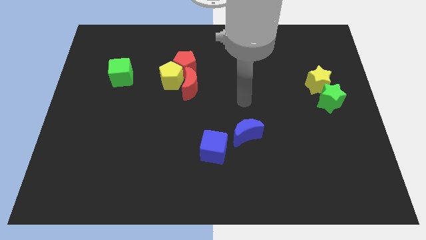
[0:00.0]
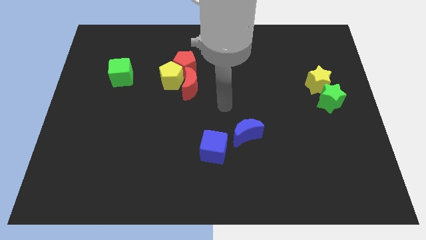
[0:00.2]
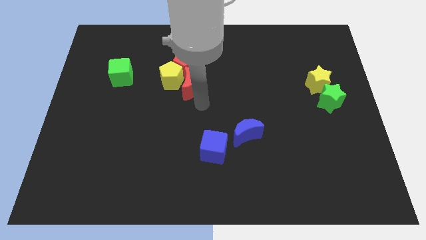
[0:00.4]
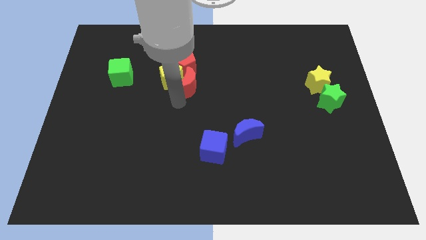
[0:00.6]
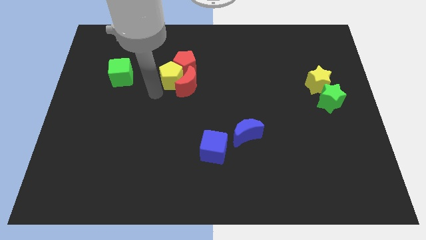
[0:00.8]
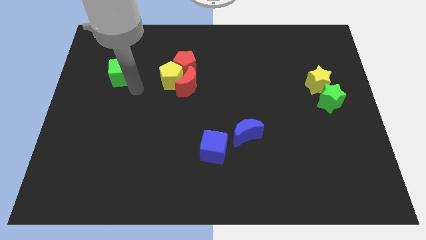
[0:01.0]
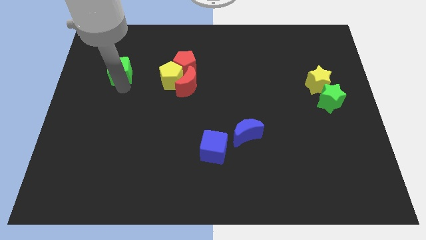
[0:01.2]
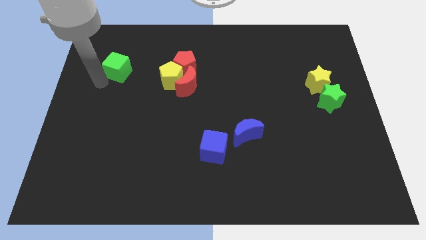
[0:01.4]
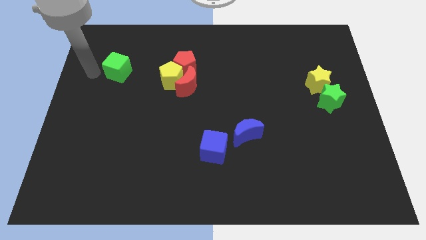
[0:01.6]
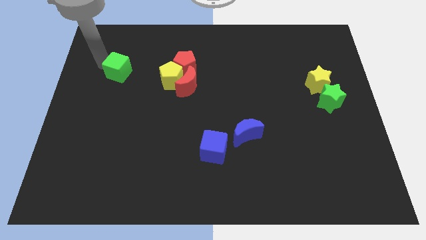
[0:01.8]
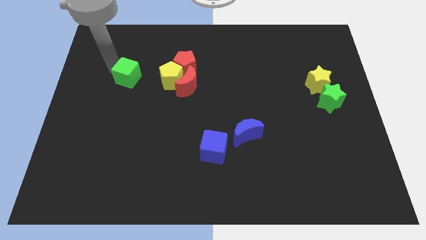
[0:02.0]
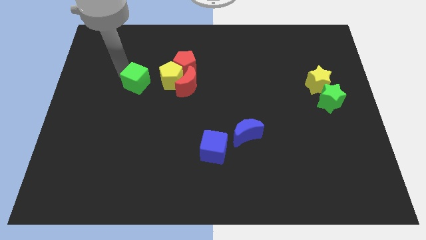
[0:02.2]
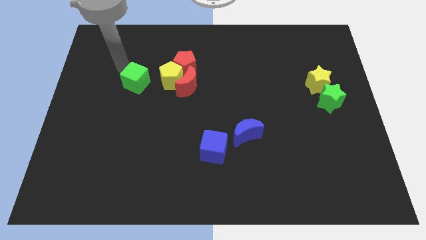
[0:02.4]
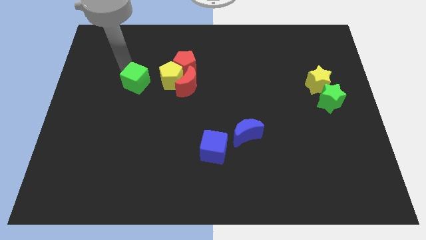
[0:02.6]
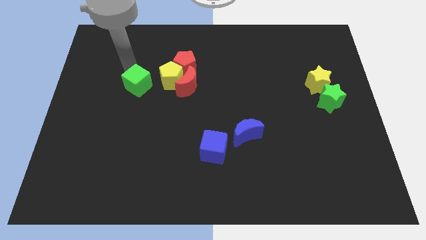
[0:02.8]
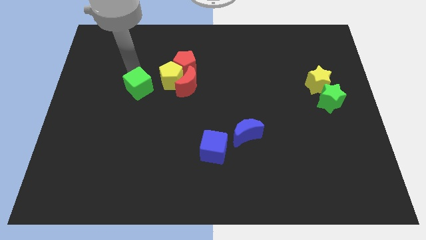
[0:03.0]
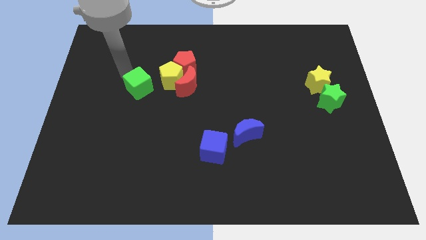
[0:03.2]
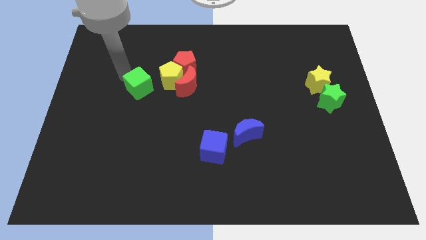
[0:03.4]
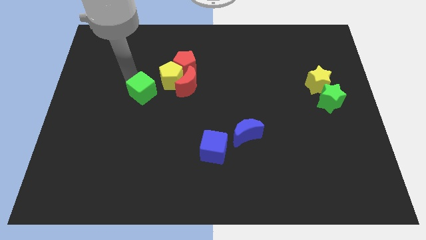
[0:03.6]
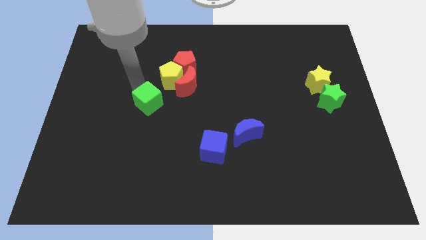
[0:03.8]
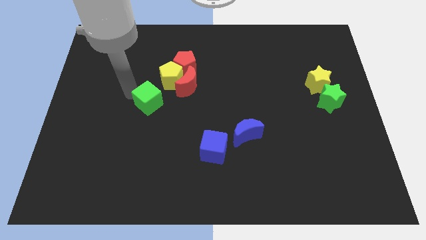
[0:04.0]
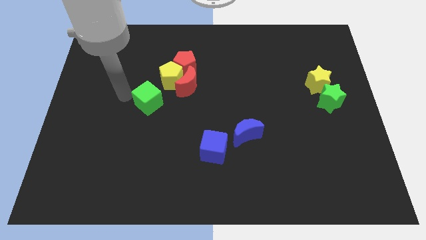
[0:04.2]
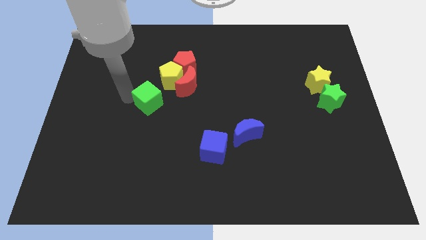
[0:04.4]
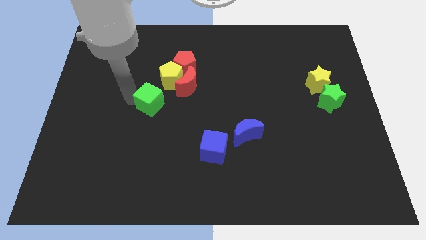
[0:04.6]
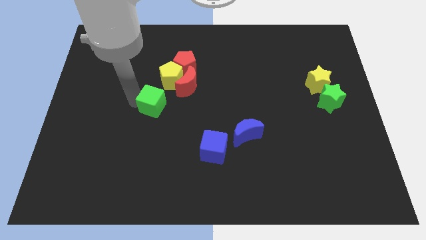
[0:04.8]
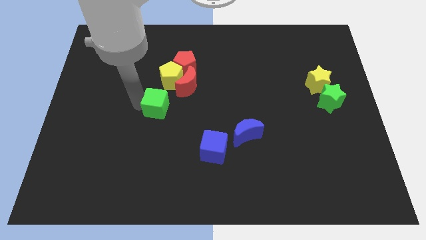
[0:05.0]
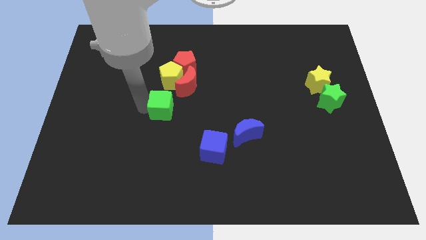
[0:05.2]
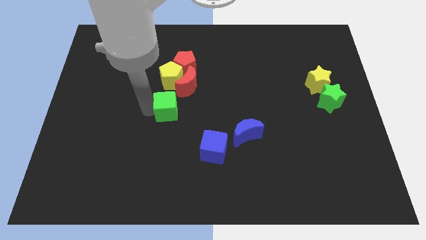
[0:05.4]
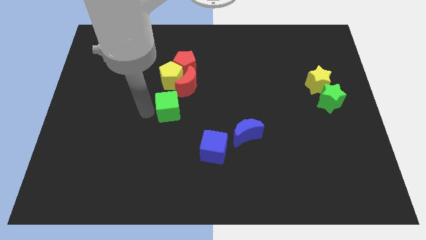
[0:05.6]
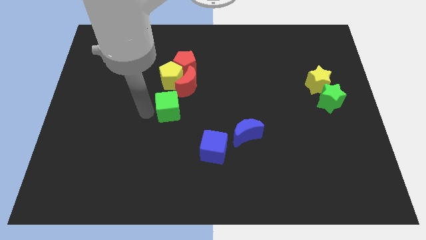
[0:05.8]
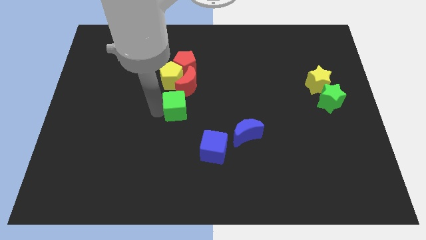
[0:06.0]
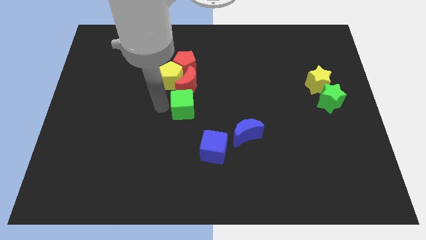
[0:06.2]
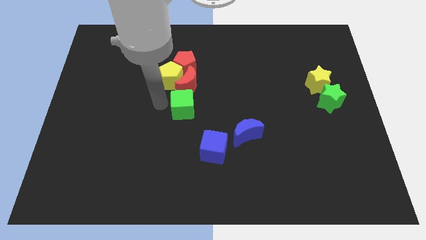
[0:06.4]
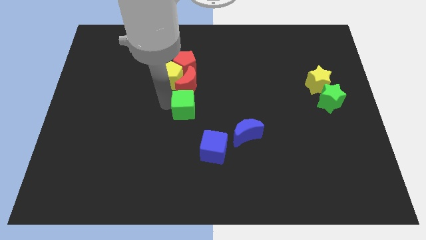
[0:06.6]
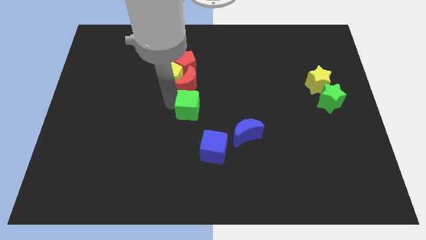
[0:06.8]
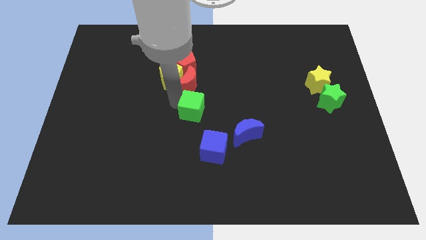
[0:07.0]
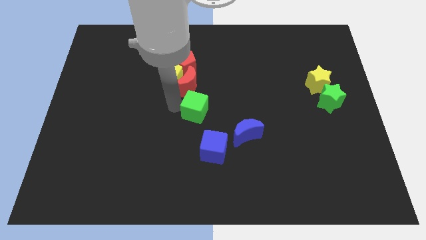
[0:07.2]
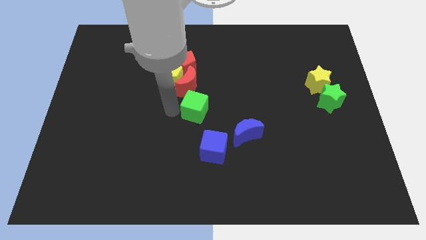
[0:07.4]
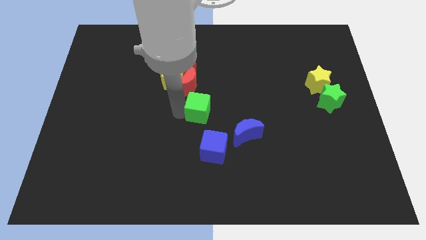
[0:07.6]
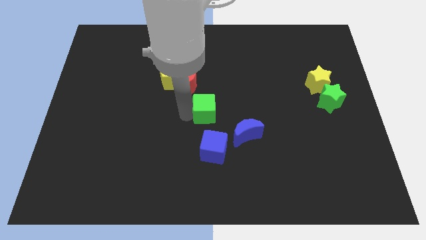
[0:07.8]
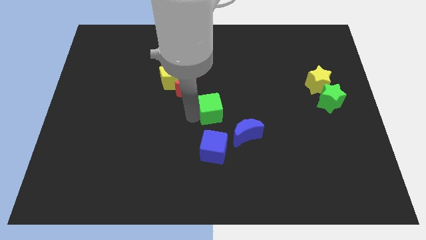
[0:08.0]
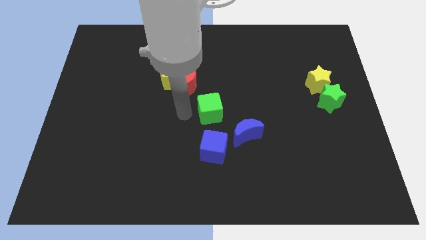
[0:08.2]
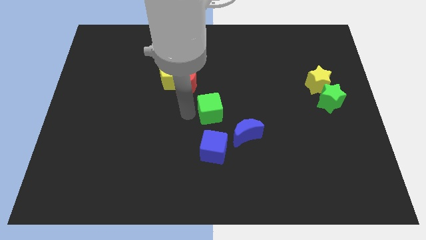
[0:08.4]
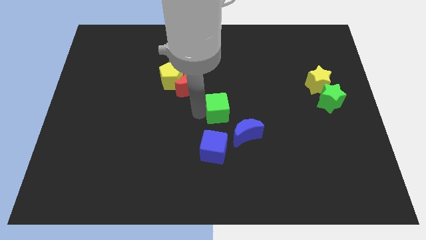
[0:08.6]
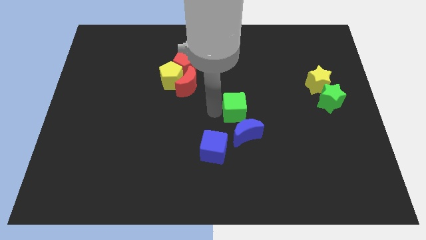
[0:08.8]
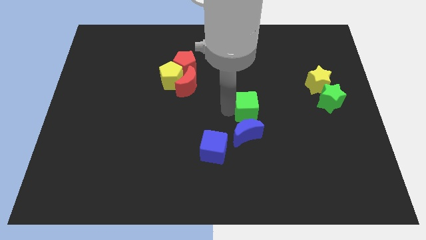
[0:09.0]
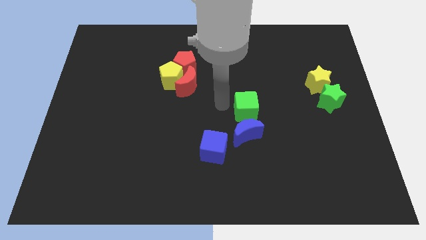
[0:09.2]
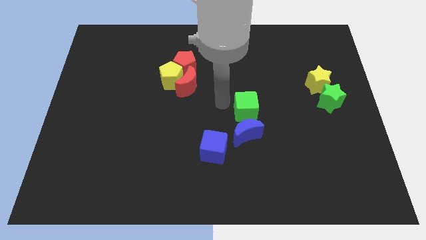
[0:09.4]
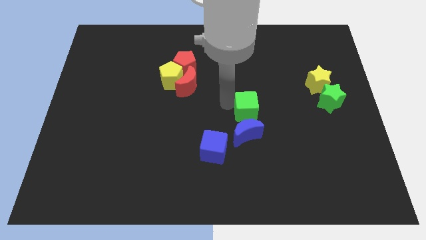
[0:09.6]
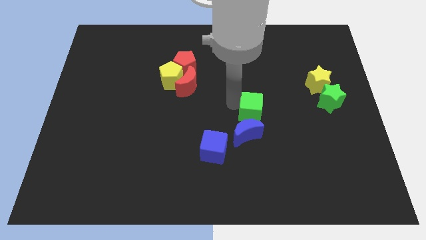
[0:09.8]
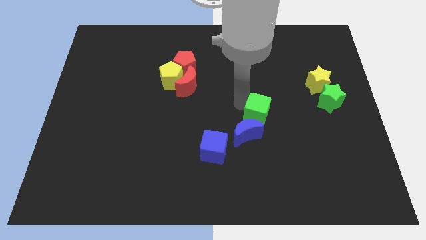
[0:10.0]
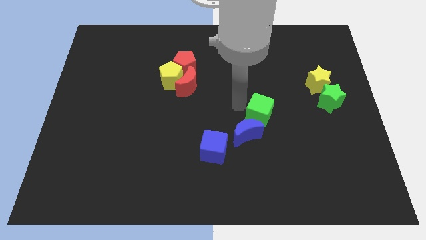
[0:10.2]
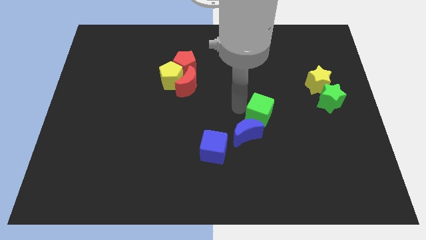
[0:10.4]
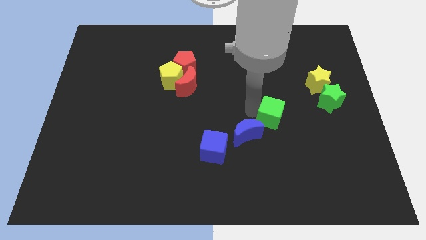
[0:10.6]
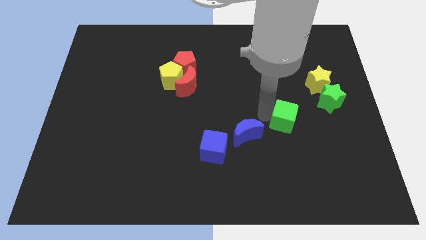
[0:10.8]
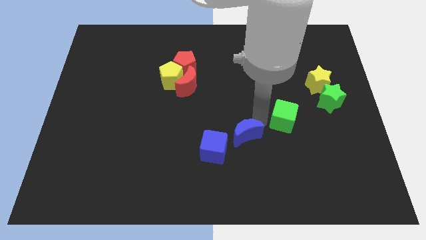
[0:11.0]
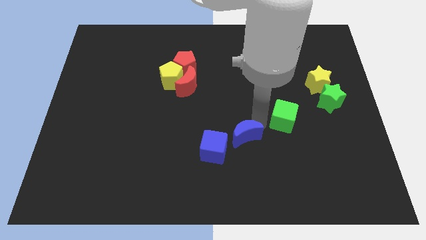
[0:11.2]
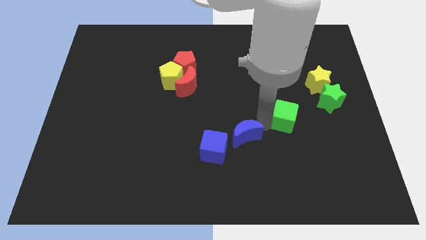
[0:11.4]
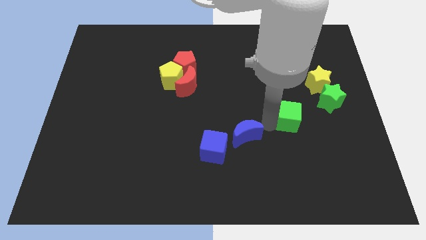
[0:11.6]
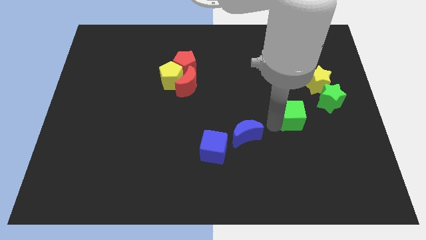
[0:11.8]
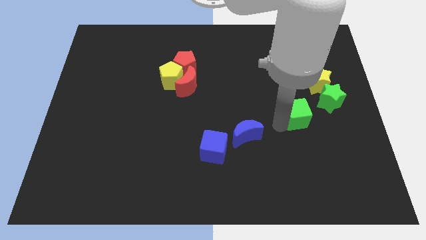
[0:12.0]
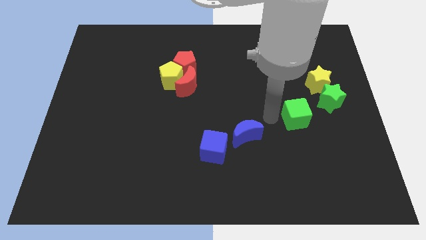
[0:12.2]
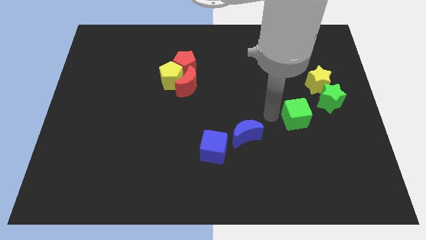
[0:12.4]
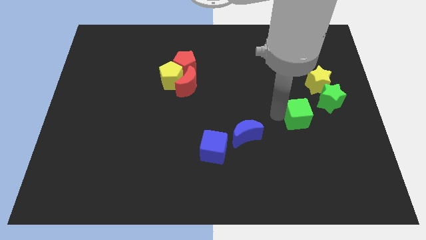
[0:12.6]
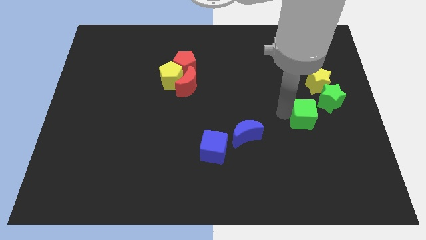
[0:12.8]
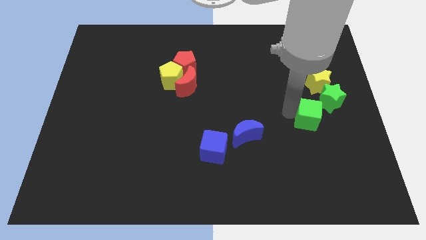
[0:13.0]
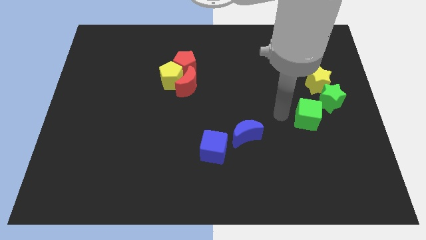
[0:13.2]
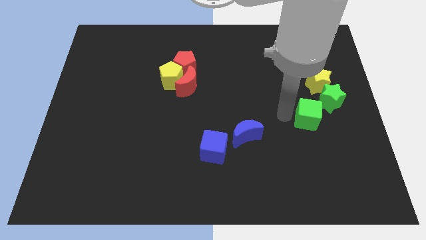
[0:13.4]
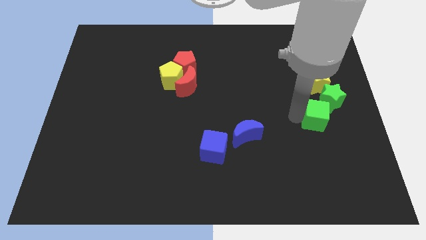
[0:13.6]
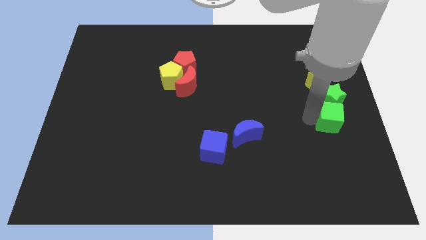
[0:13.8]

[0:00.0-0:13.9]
put the green cube to the right side of the board
